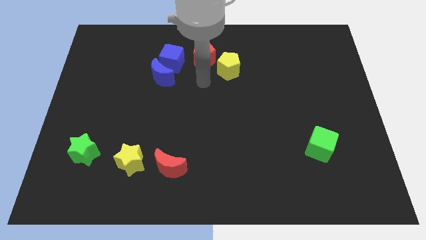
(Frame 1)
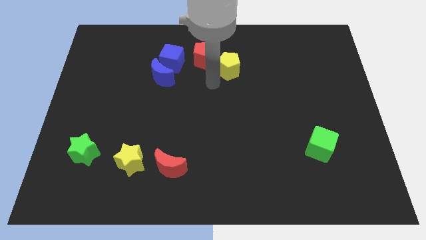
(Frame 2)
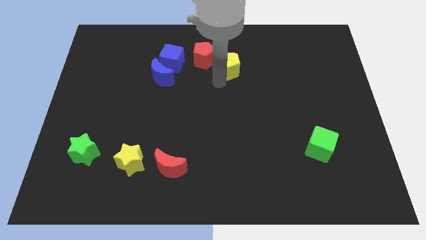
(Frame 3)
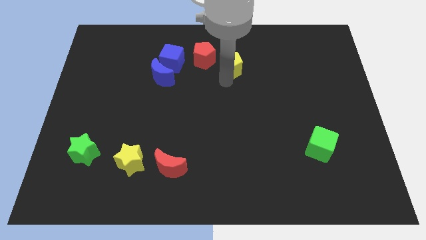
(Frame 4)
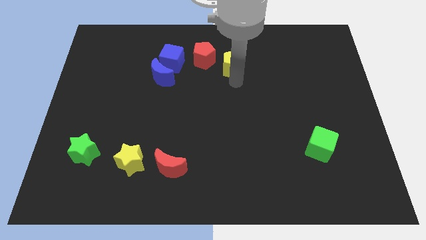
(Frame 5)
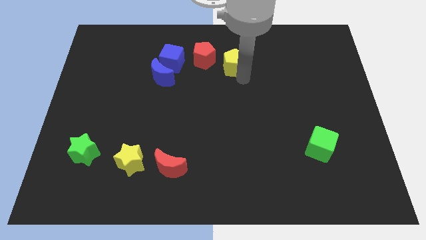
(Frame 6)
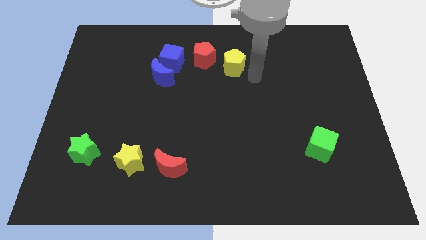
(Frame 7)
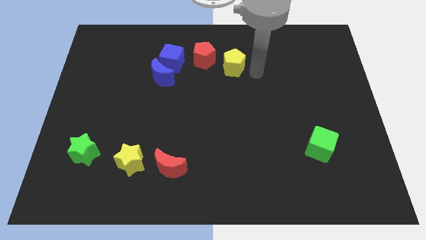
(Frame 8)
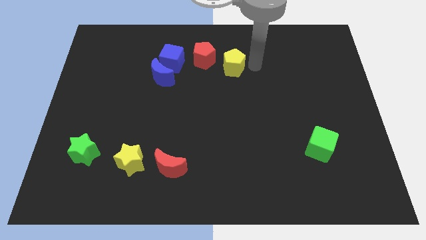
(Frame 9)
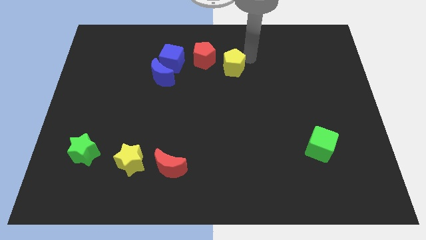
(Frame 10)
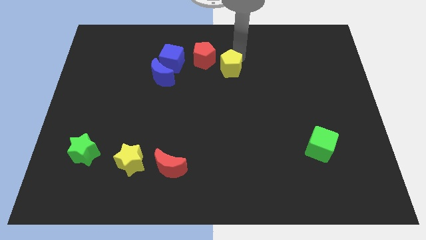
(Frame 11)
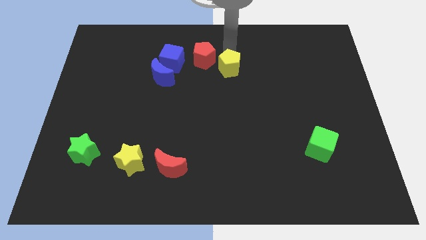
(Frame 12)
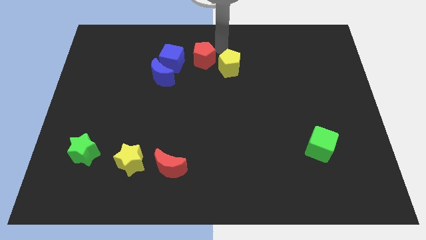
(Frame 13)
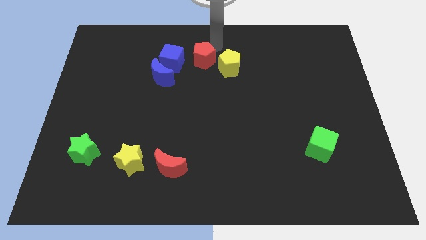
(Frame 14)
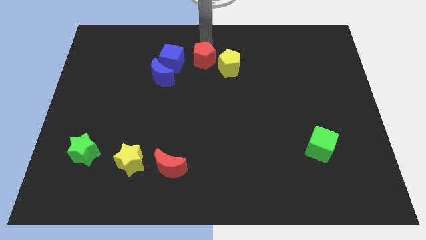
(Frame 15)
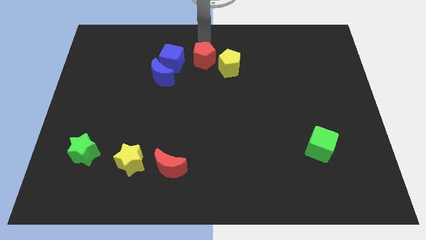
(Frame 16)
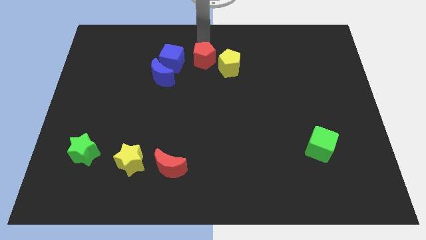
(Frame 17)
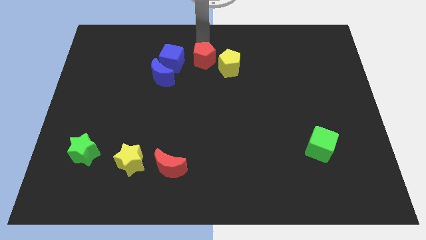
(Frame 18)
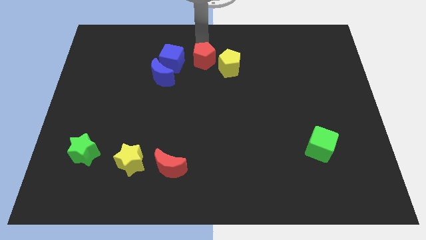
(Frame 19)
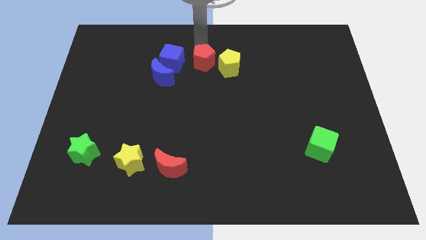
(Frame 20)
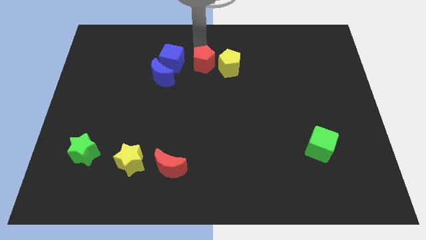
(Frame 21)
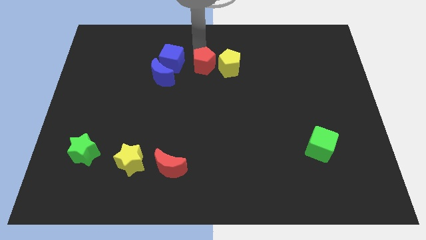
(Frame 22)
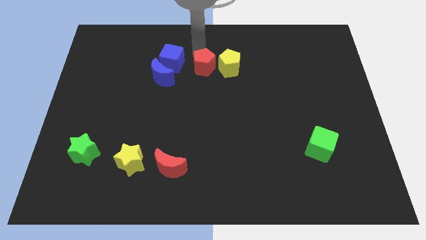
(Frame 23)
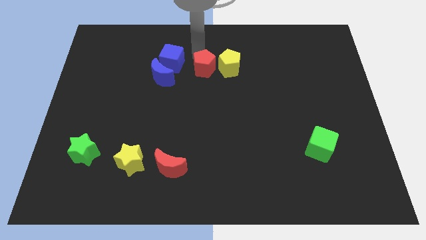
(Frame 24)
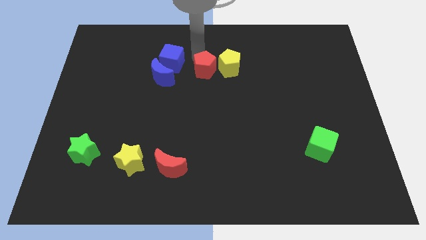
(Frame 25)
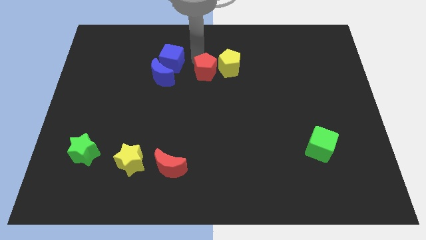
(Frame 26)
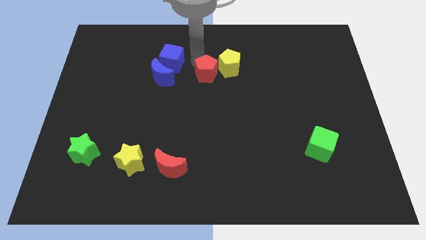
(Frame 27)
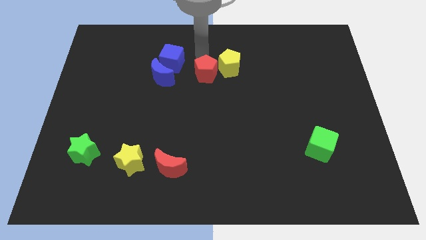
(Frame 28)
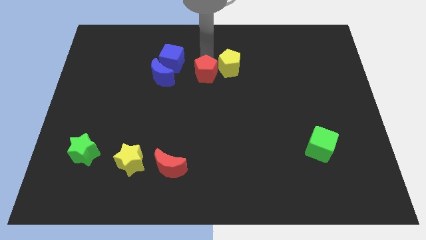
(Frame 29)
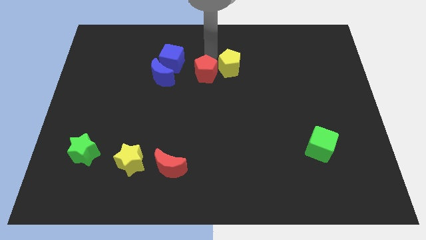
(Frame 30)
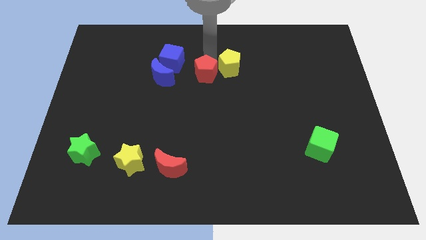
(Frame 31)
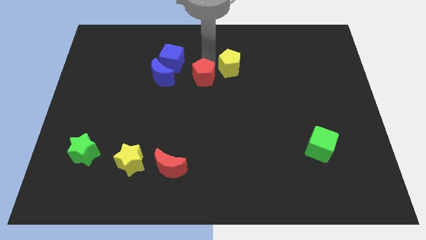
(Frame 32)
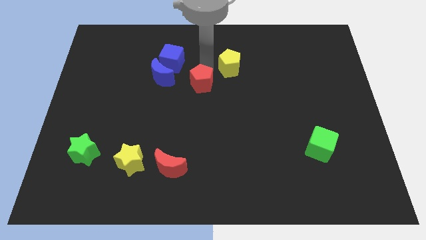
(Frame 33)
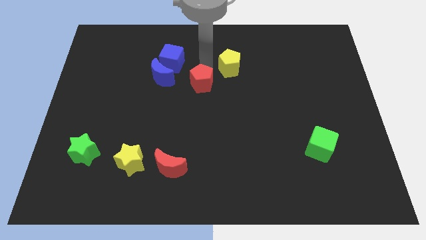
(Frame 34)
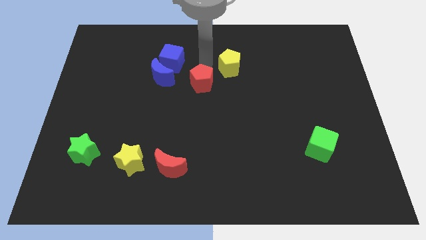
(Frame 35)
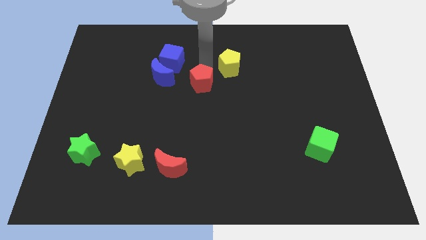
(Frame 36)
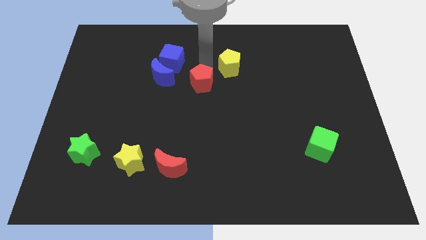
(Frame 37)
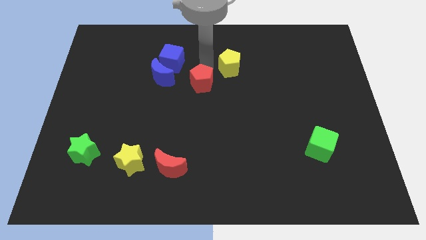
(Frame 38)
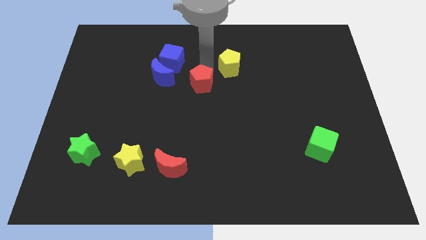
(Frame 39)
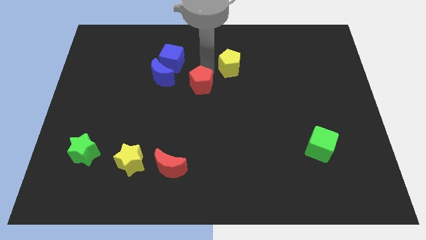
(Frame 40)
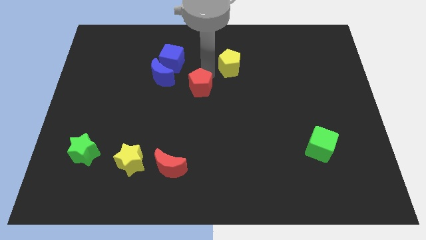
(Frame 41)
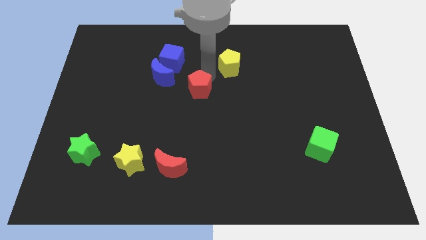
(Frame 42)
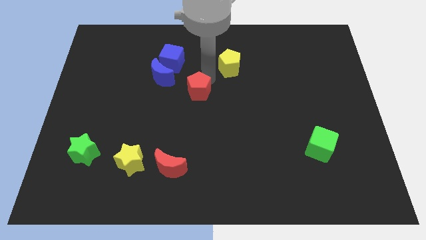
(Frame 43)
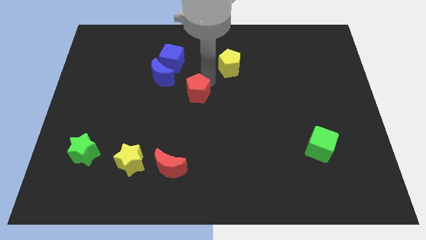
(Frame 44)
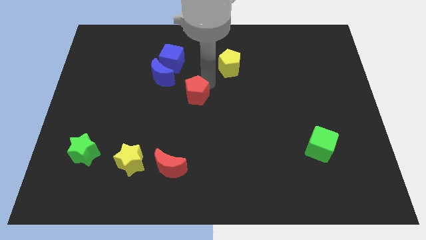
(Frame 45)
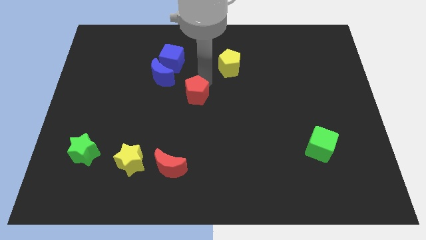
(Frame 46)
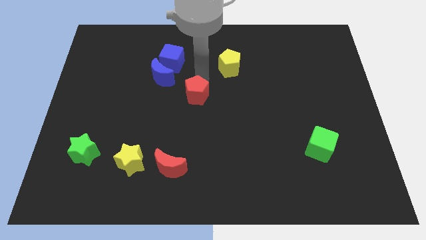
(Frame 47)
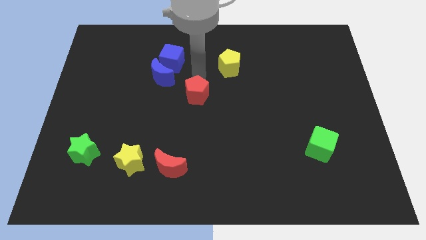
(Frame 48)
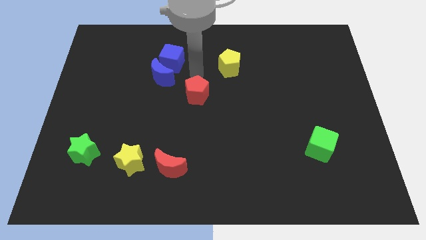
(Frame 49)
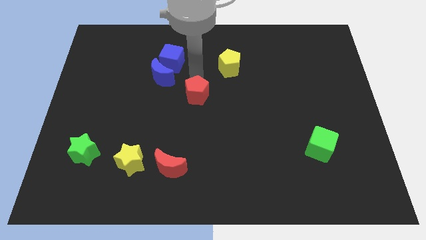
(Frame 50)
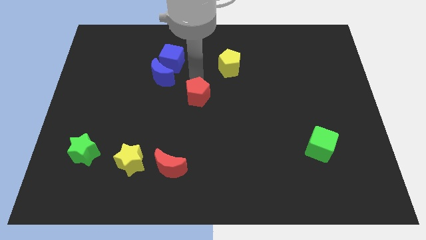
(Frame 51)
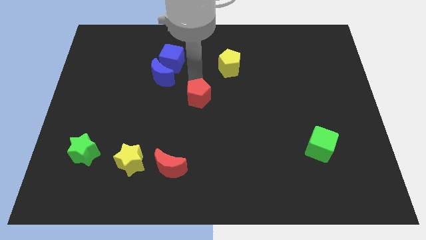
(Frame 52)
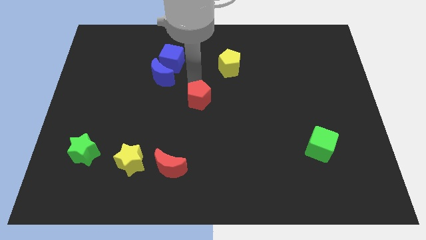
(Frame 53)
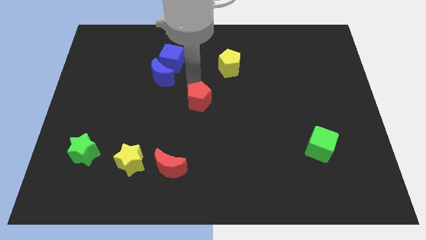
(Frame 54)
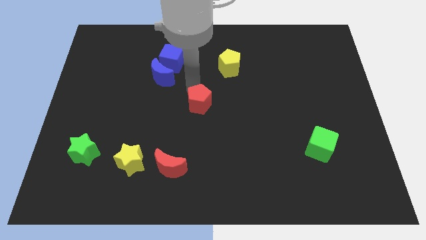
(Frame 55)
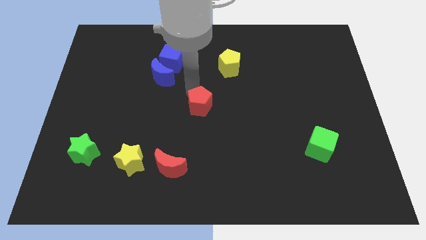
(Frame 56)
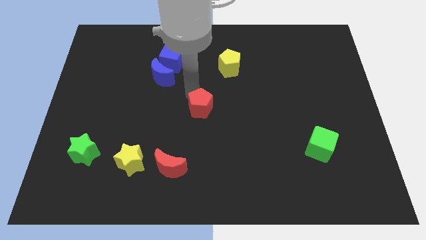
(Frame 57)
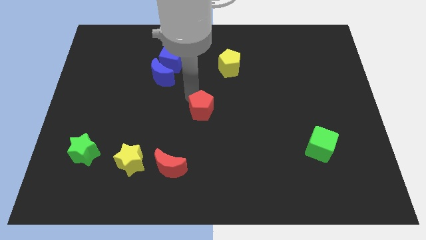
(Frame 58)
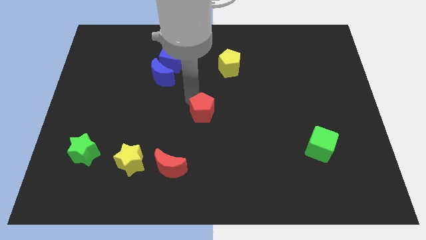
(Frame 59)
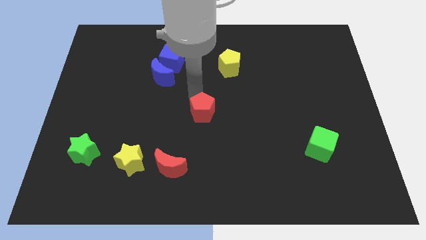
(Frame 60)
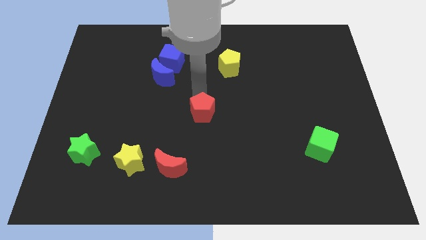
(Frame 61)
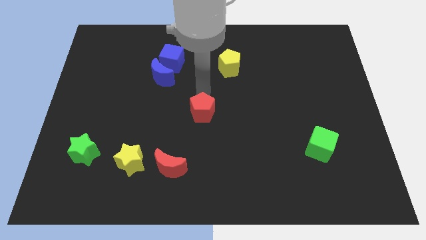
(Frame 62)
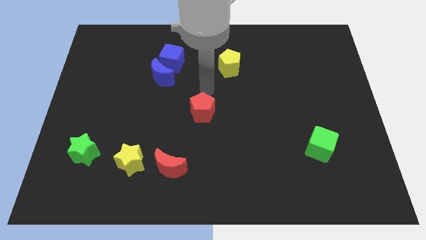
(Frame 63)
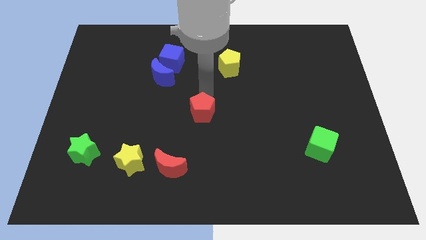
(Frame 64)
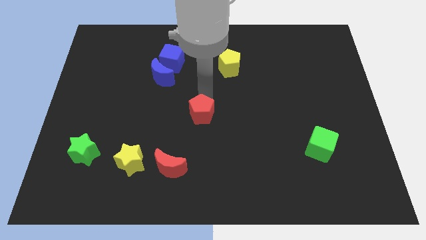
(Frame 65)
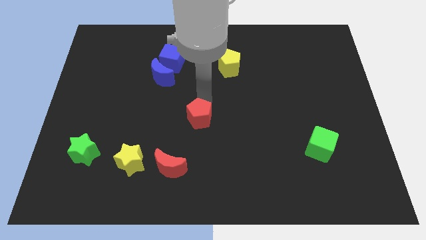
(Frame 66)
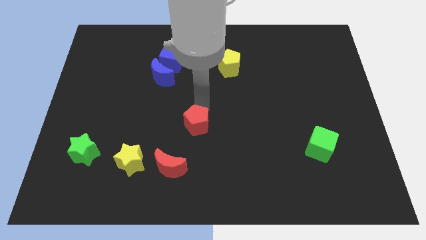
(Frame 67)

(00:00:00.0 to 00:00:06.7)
push the red pentagon down

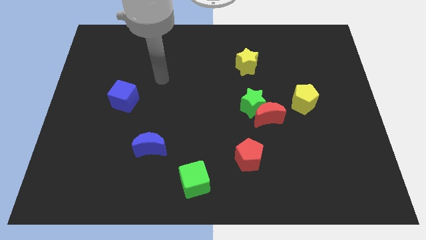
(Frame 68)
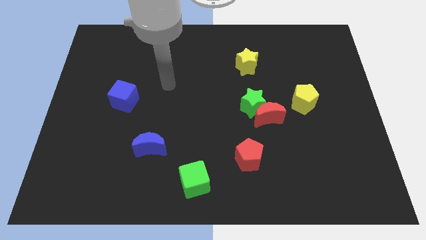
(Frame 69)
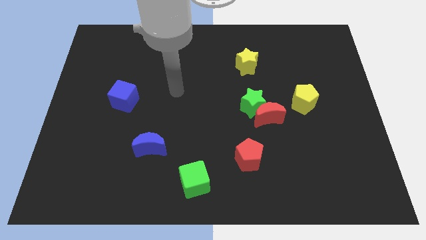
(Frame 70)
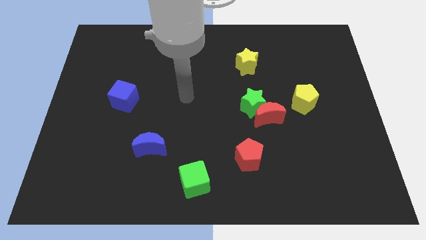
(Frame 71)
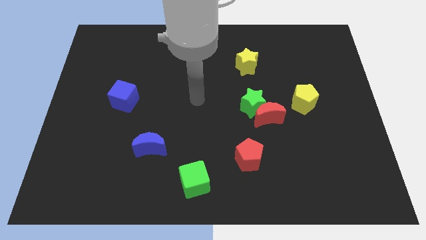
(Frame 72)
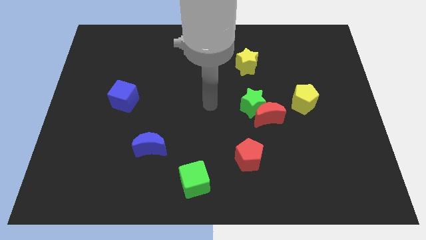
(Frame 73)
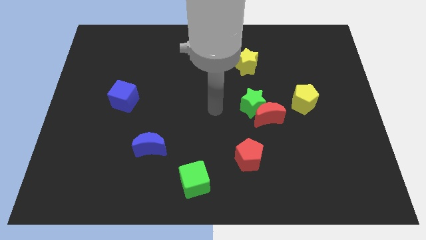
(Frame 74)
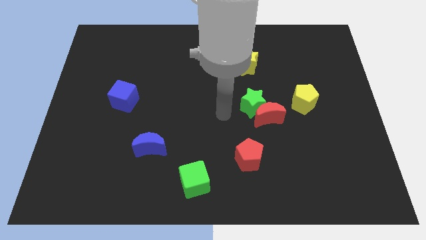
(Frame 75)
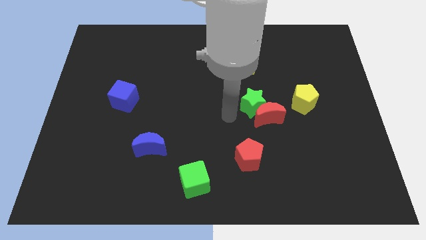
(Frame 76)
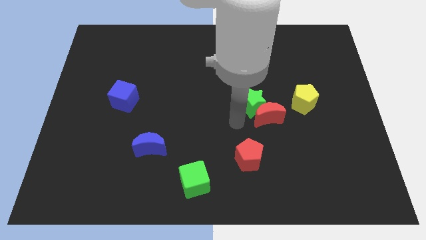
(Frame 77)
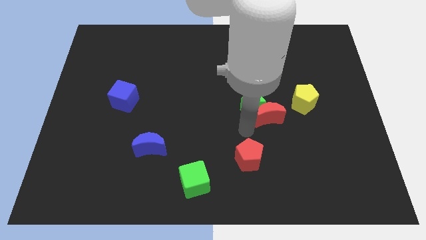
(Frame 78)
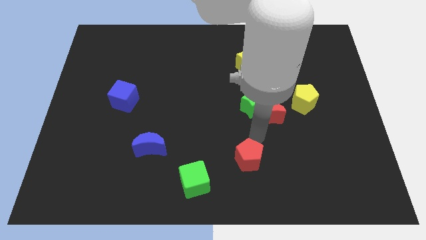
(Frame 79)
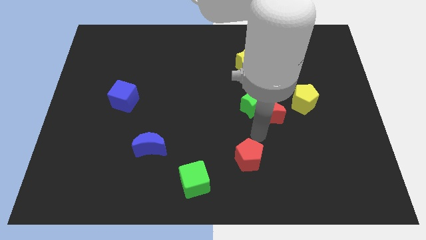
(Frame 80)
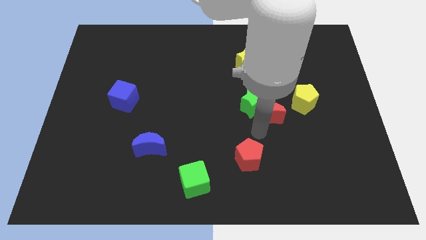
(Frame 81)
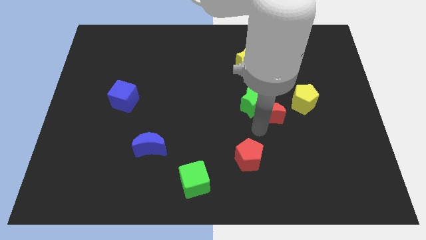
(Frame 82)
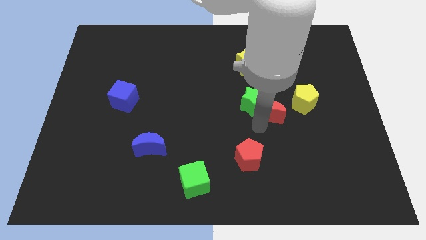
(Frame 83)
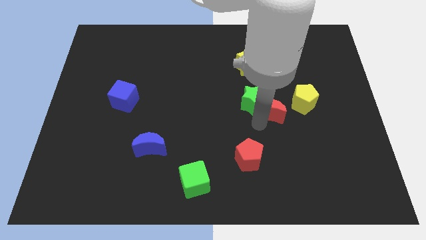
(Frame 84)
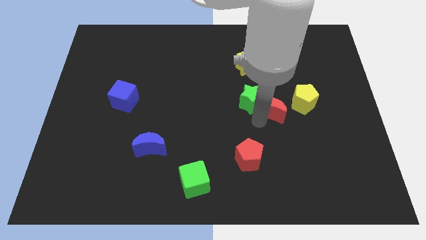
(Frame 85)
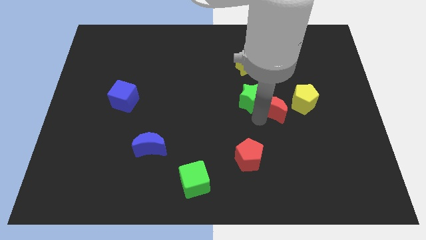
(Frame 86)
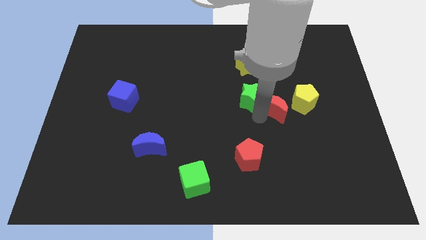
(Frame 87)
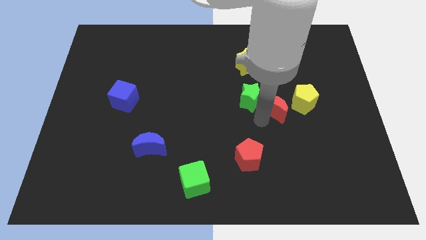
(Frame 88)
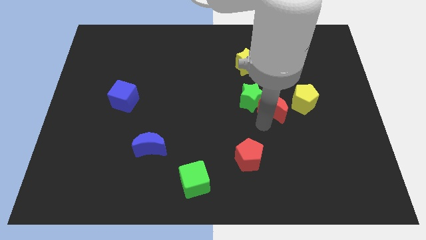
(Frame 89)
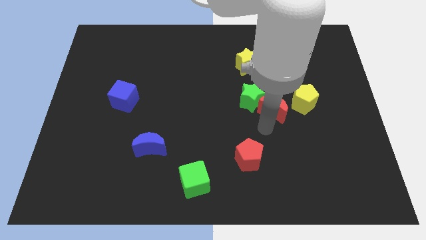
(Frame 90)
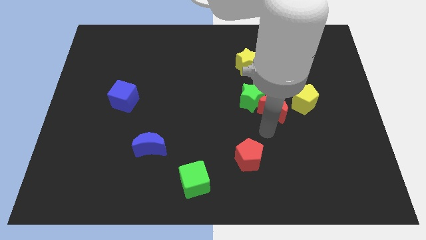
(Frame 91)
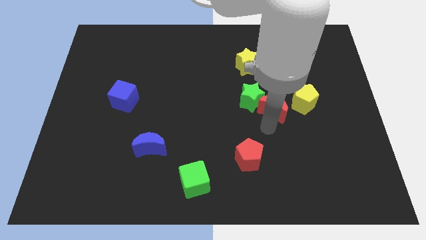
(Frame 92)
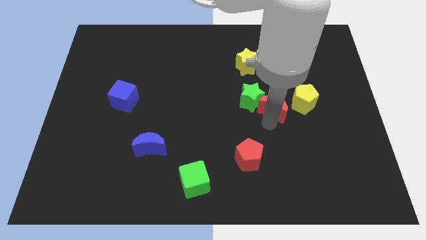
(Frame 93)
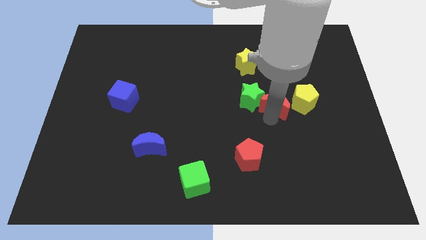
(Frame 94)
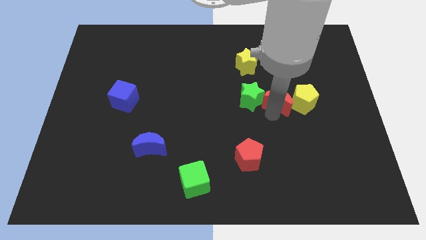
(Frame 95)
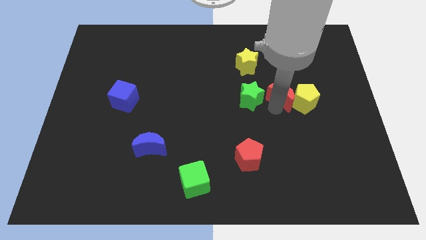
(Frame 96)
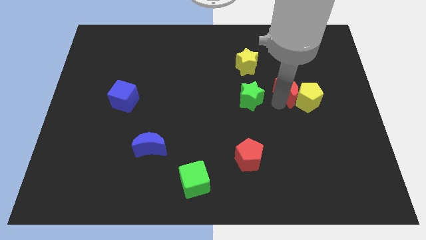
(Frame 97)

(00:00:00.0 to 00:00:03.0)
move the red moon slightly upwards and right
